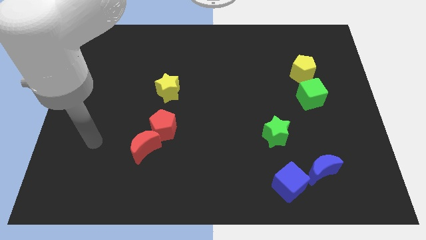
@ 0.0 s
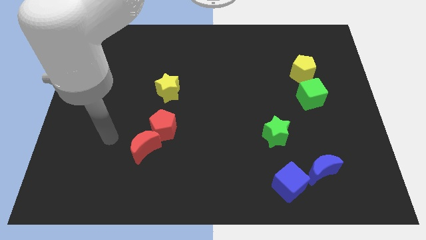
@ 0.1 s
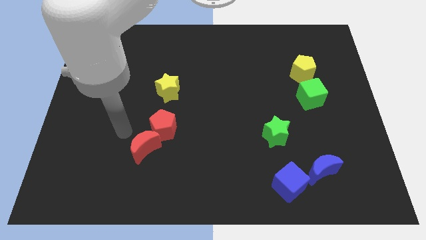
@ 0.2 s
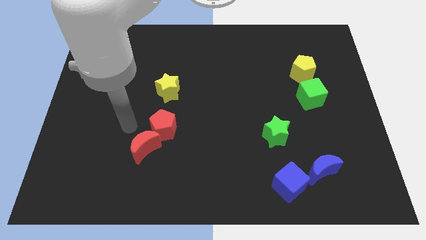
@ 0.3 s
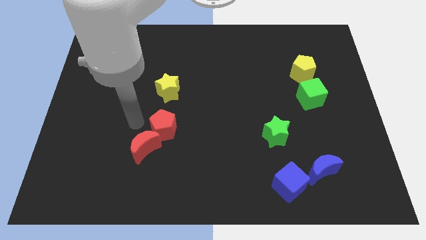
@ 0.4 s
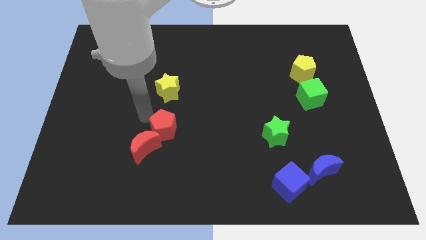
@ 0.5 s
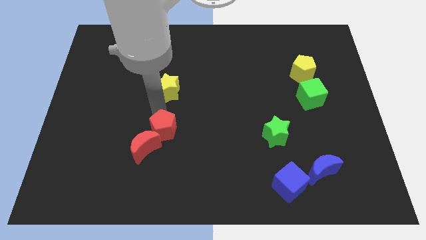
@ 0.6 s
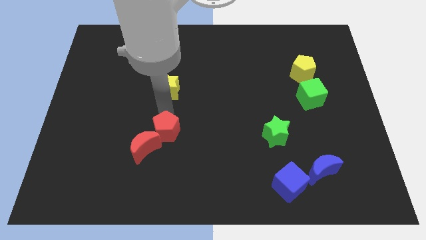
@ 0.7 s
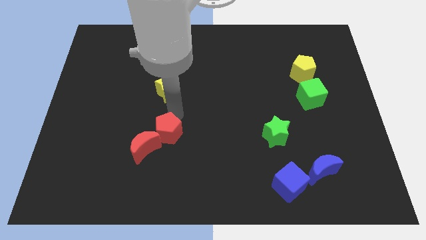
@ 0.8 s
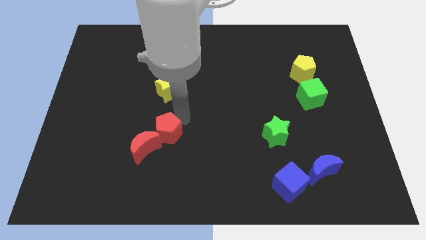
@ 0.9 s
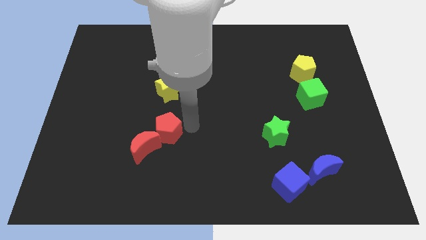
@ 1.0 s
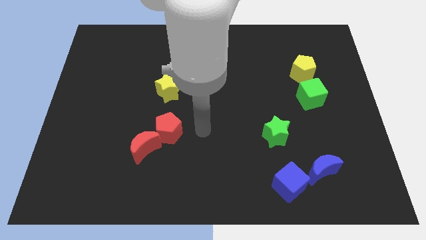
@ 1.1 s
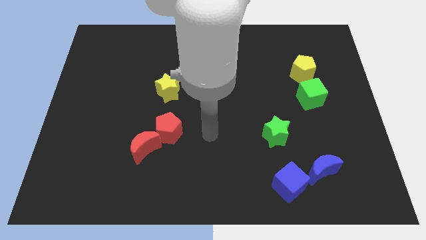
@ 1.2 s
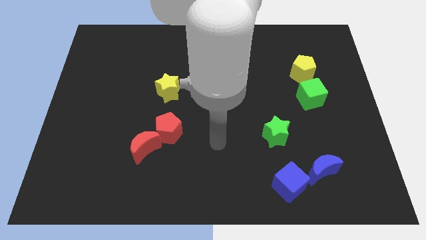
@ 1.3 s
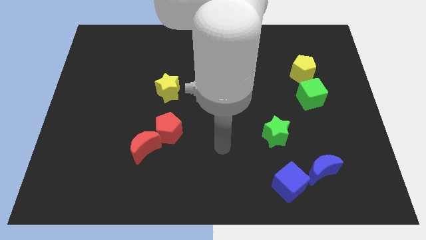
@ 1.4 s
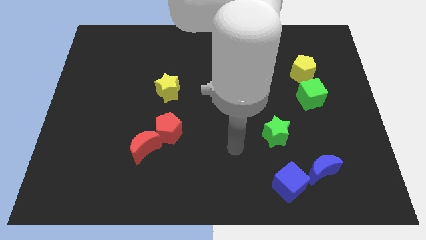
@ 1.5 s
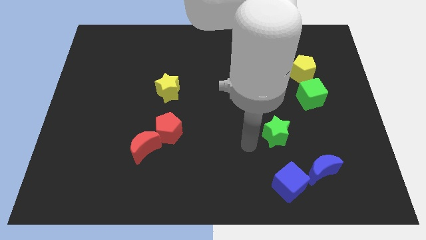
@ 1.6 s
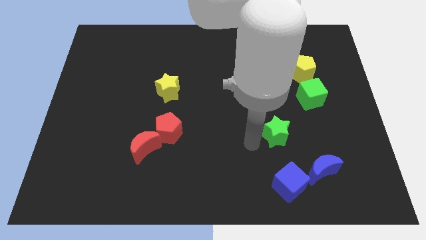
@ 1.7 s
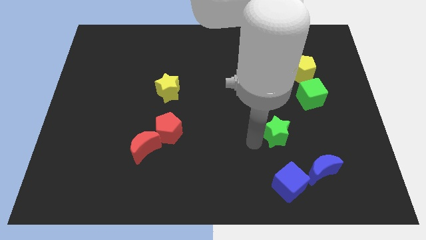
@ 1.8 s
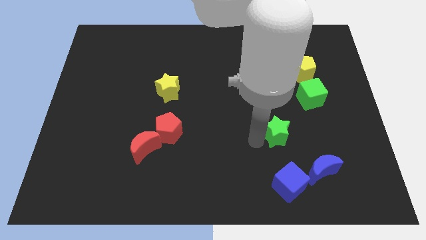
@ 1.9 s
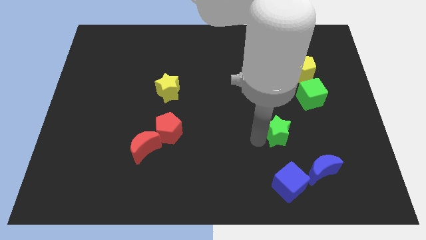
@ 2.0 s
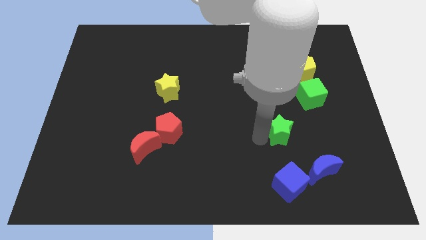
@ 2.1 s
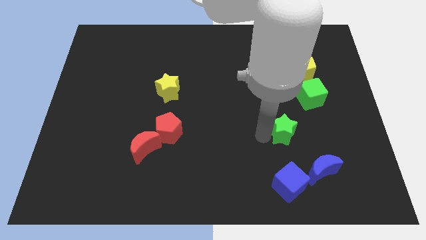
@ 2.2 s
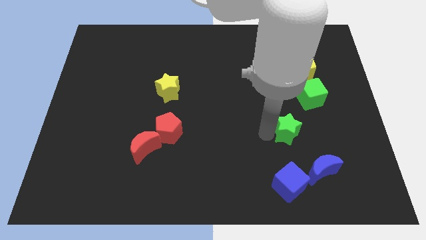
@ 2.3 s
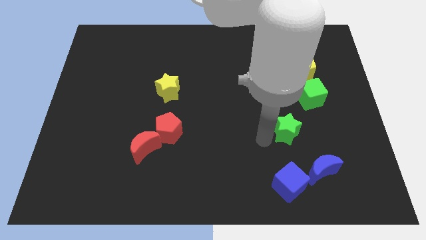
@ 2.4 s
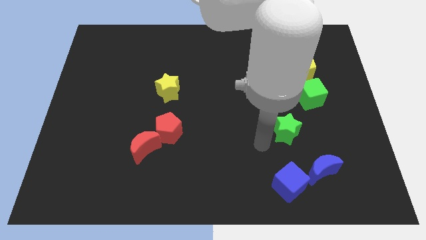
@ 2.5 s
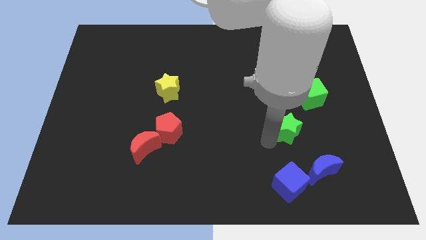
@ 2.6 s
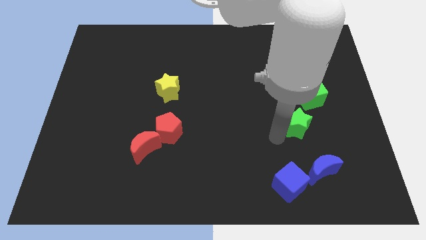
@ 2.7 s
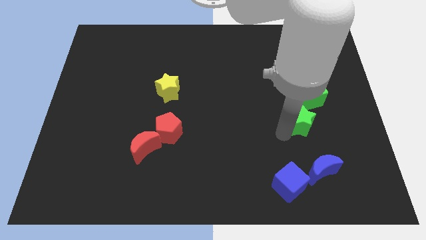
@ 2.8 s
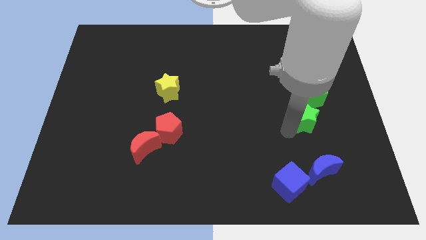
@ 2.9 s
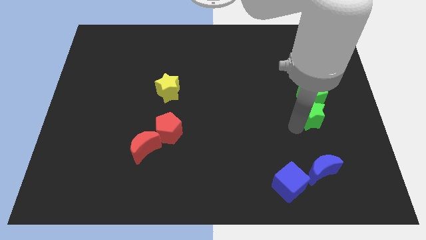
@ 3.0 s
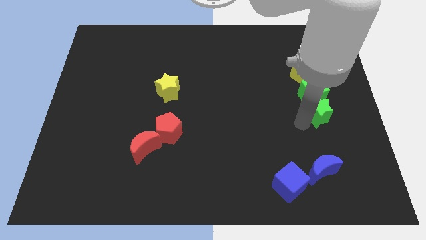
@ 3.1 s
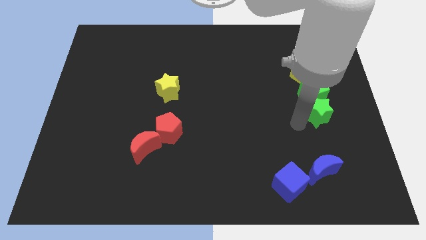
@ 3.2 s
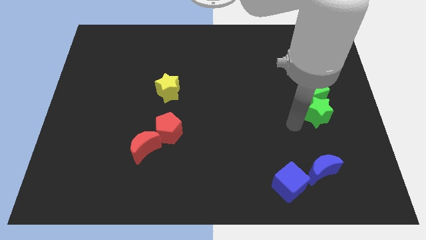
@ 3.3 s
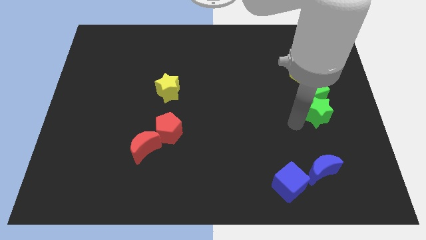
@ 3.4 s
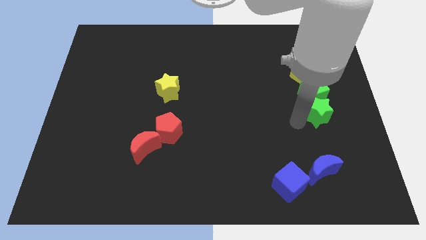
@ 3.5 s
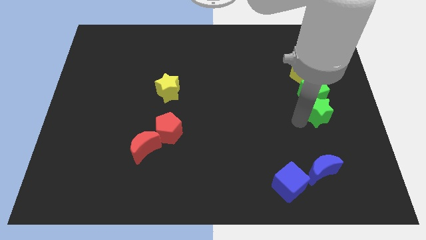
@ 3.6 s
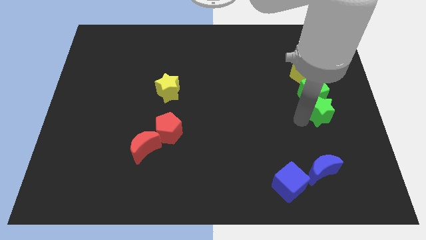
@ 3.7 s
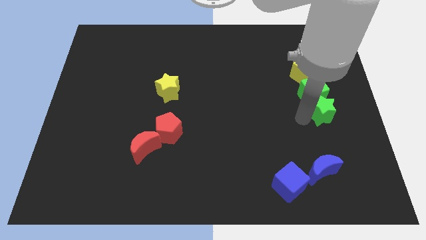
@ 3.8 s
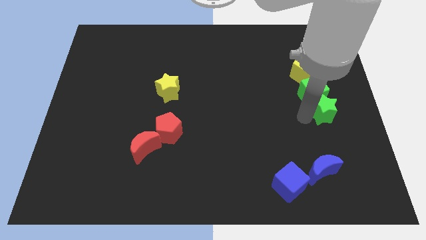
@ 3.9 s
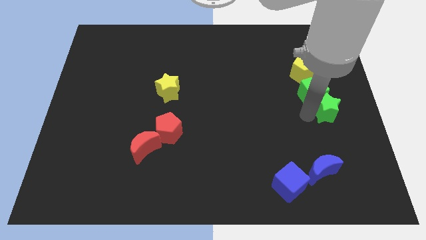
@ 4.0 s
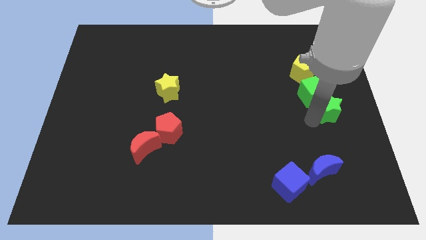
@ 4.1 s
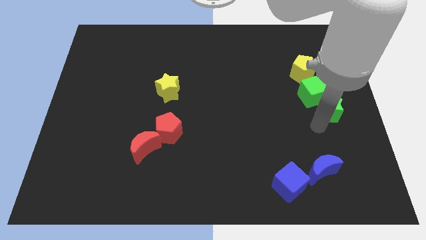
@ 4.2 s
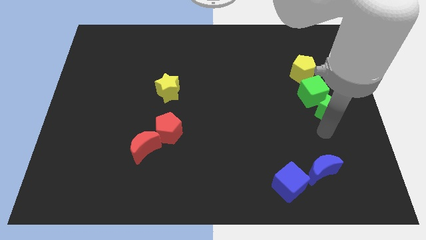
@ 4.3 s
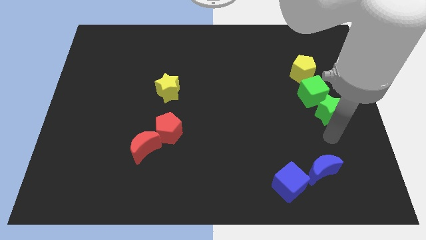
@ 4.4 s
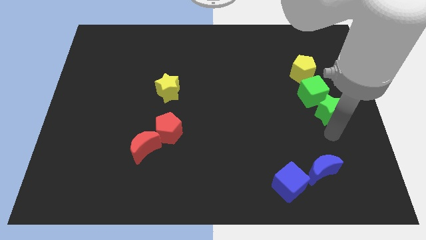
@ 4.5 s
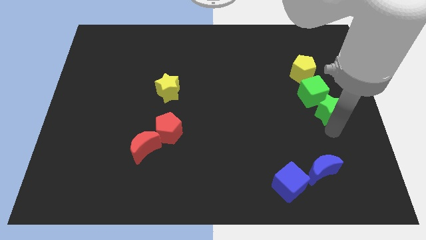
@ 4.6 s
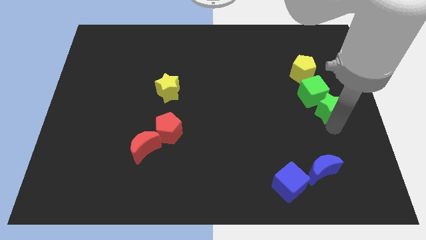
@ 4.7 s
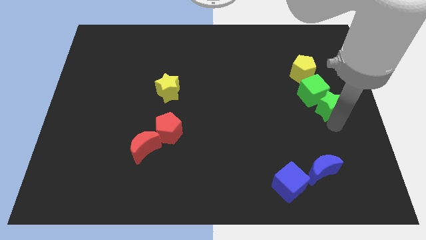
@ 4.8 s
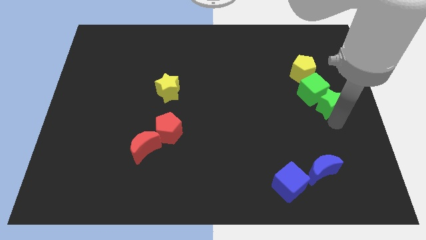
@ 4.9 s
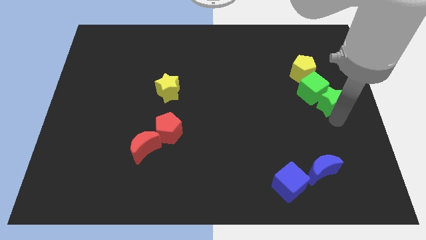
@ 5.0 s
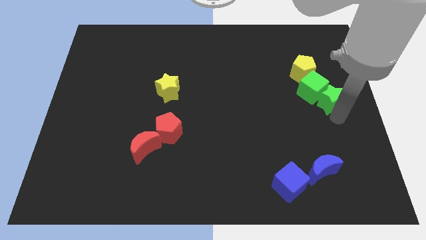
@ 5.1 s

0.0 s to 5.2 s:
slide the green star to the bottom right of the yellow pentagon

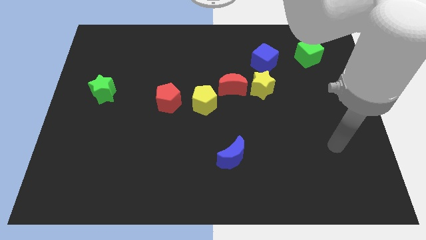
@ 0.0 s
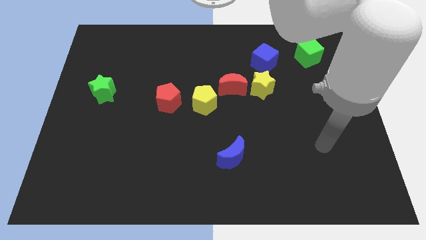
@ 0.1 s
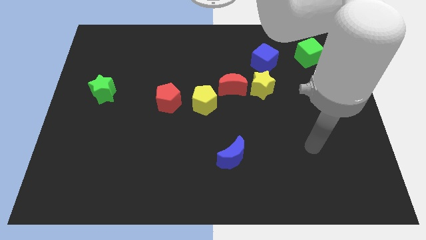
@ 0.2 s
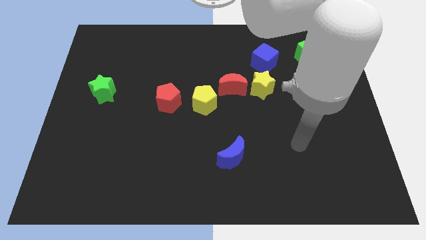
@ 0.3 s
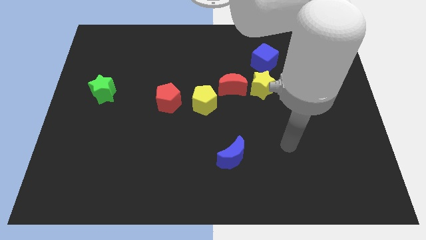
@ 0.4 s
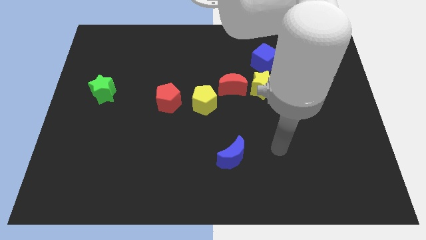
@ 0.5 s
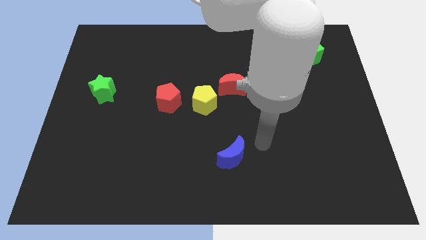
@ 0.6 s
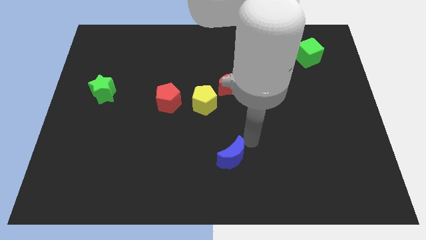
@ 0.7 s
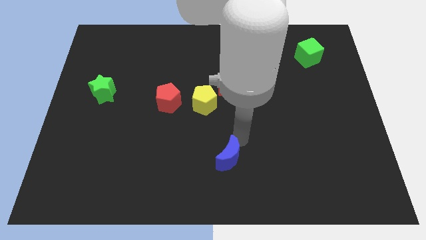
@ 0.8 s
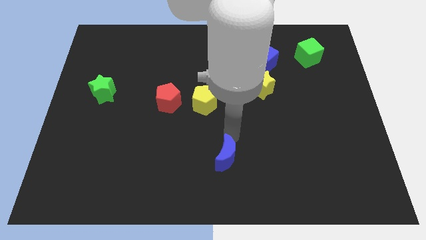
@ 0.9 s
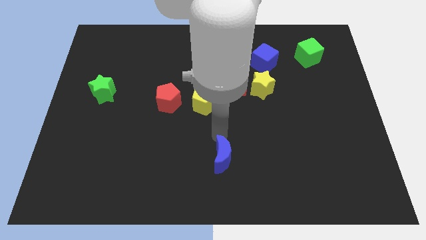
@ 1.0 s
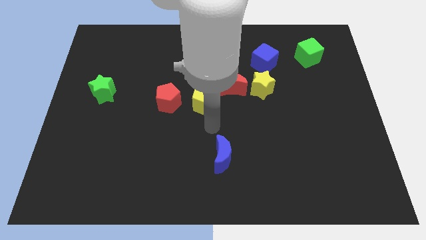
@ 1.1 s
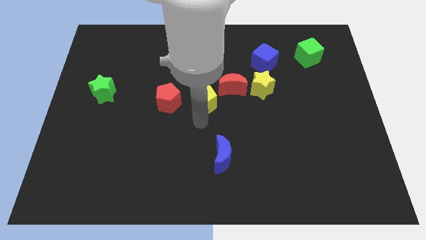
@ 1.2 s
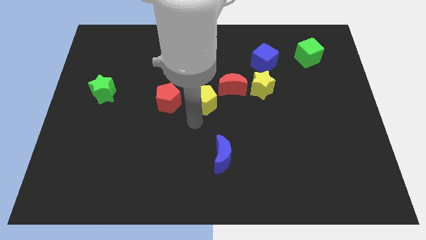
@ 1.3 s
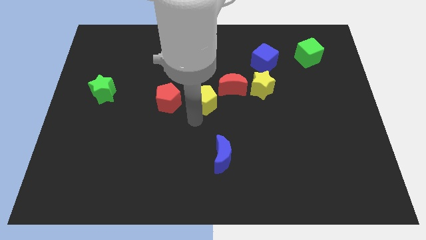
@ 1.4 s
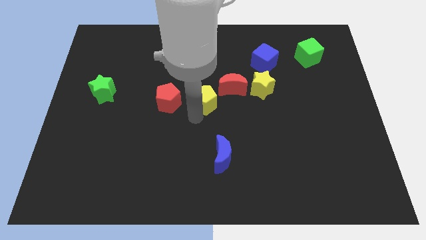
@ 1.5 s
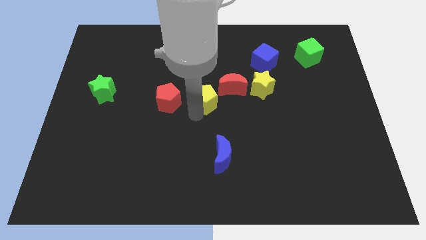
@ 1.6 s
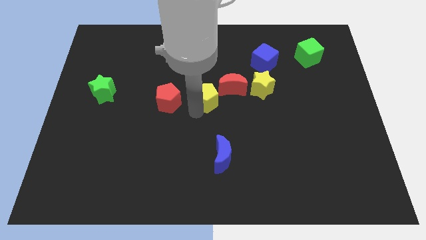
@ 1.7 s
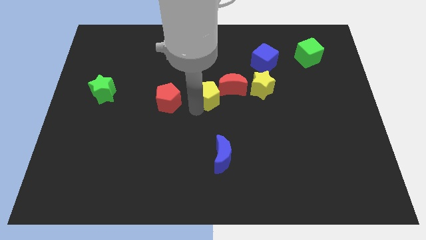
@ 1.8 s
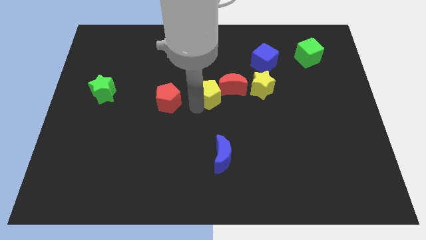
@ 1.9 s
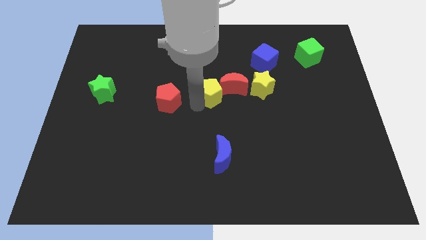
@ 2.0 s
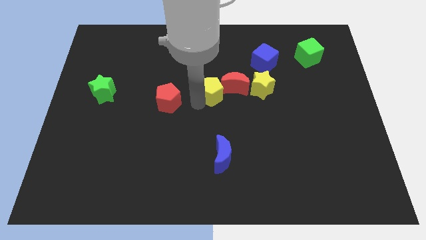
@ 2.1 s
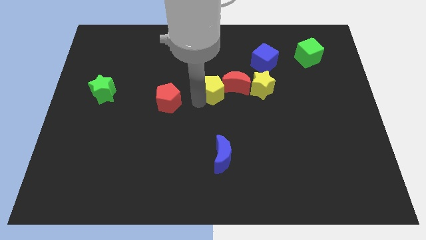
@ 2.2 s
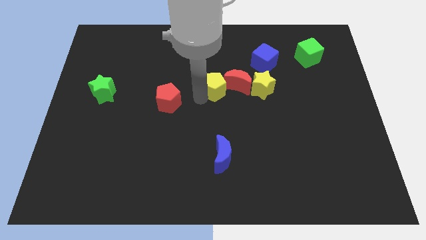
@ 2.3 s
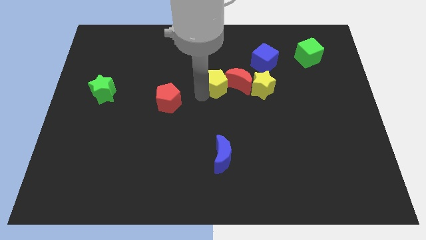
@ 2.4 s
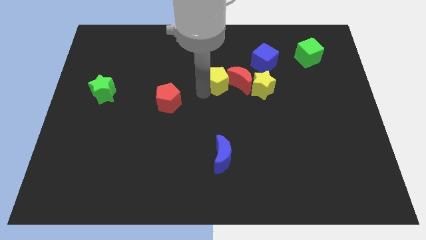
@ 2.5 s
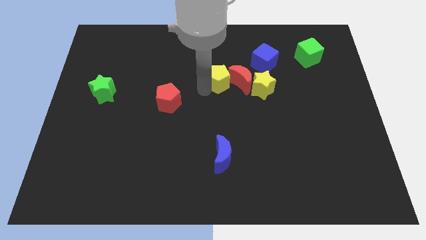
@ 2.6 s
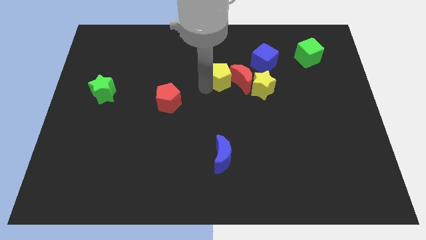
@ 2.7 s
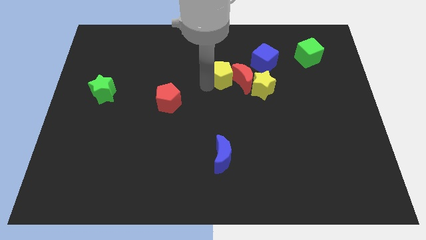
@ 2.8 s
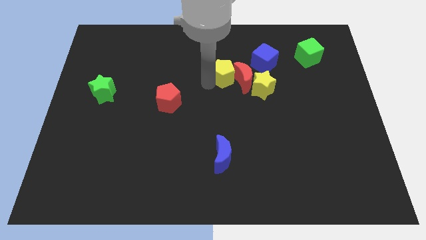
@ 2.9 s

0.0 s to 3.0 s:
move the yellow pentagon to the left side of the blue cube
